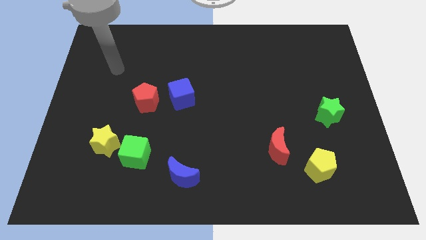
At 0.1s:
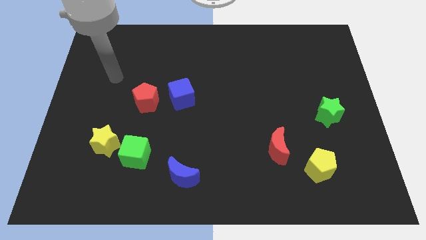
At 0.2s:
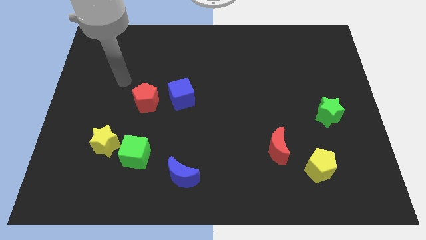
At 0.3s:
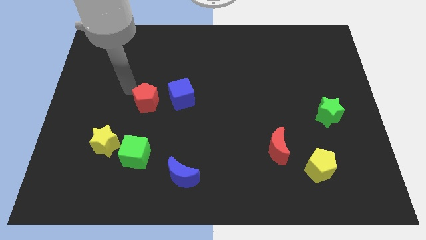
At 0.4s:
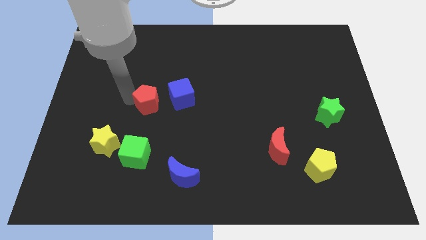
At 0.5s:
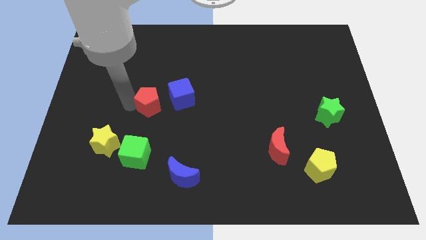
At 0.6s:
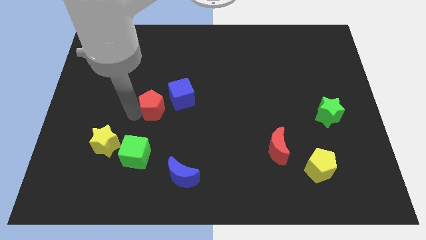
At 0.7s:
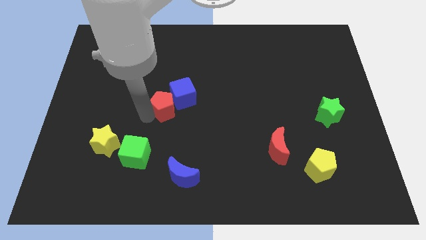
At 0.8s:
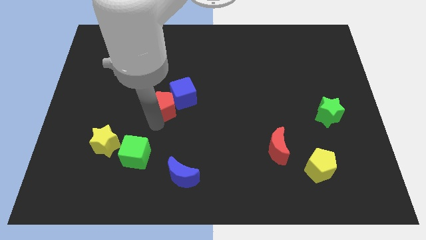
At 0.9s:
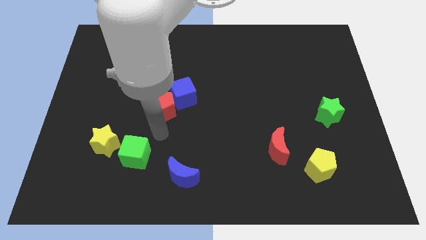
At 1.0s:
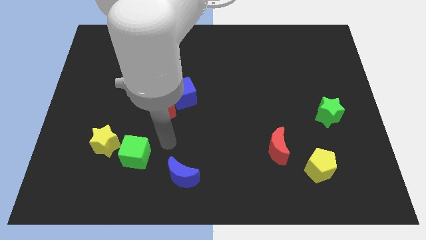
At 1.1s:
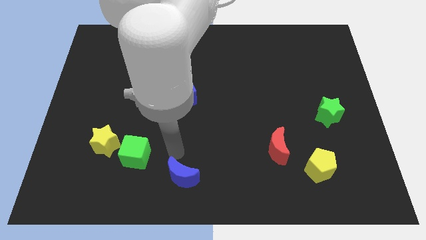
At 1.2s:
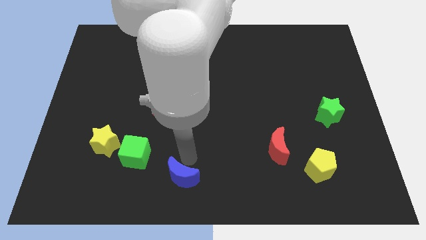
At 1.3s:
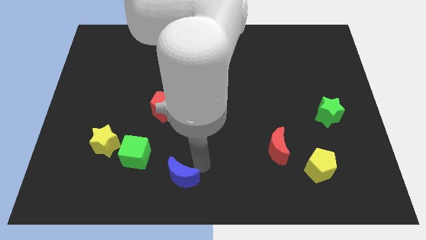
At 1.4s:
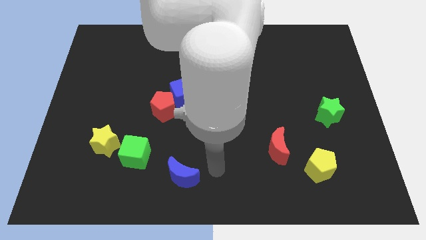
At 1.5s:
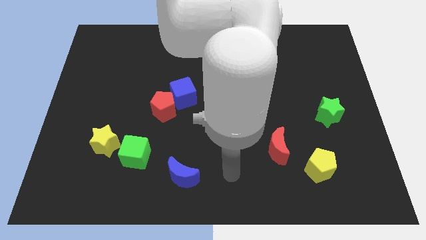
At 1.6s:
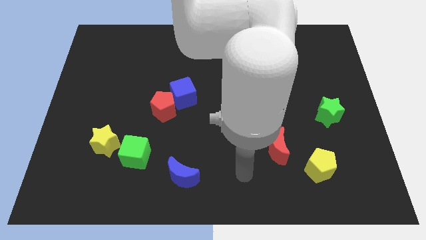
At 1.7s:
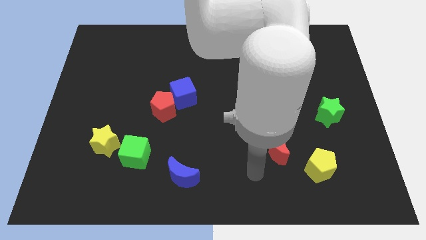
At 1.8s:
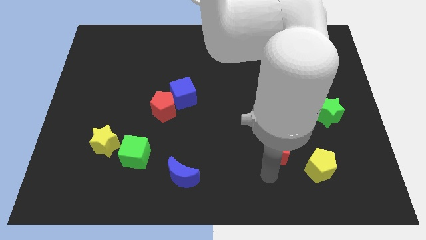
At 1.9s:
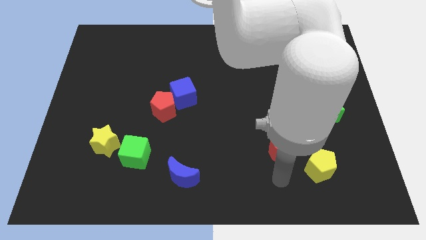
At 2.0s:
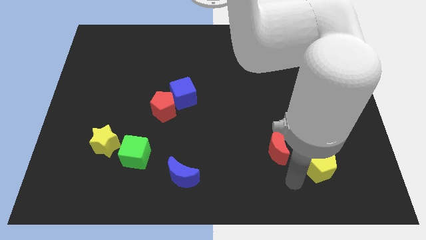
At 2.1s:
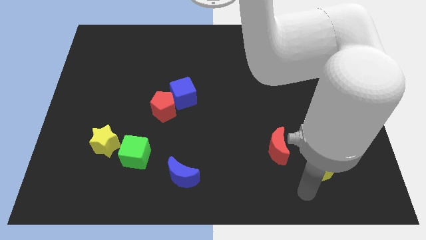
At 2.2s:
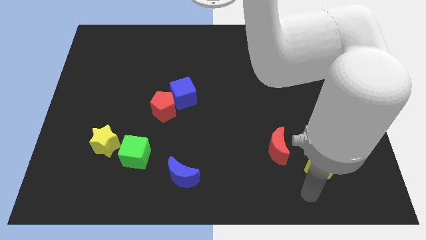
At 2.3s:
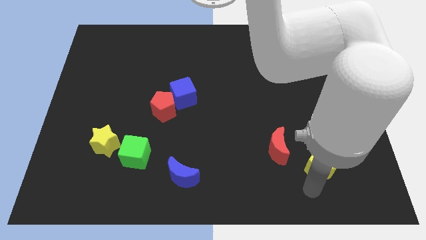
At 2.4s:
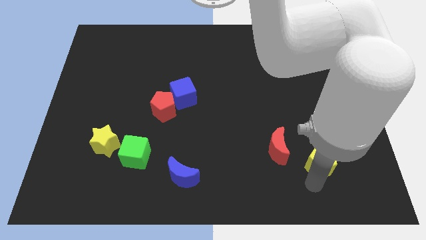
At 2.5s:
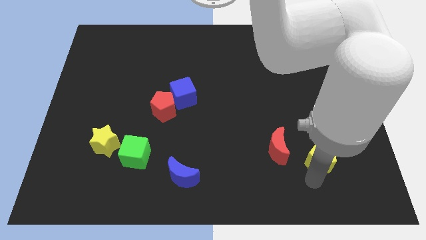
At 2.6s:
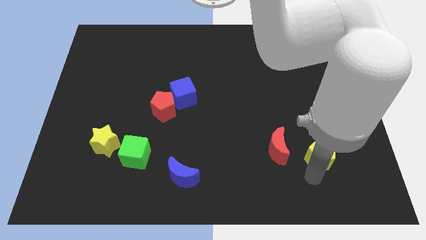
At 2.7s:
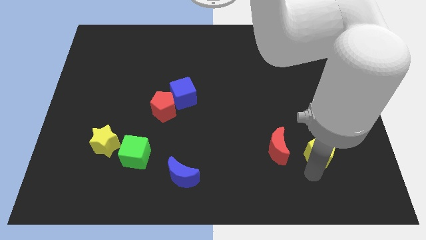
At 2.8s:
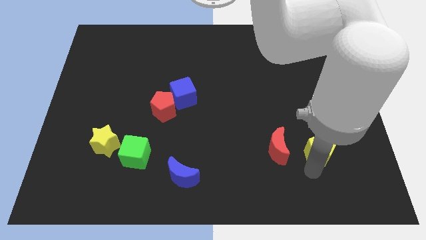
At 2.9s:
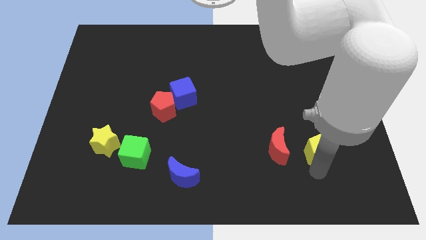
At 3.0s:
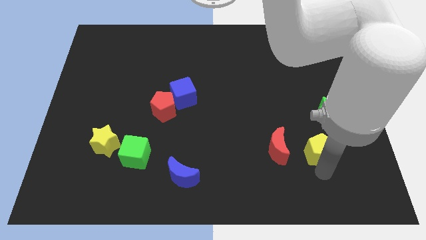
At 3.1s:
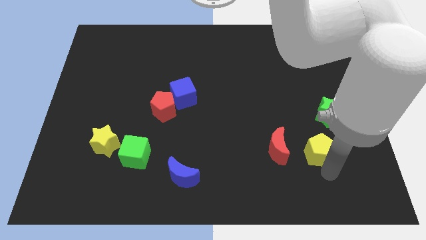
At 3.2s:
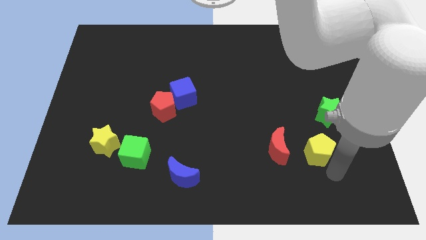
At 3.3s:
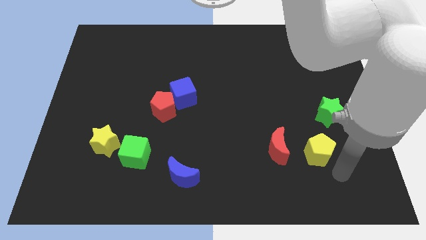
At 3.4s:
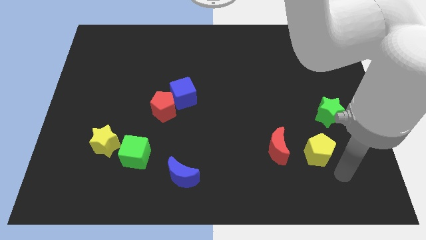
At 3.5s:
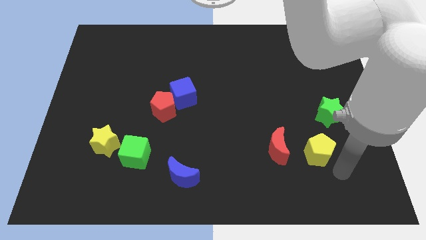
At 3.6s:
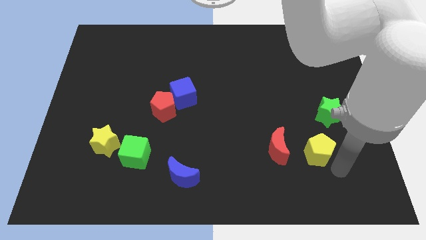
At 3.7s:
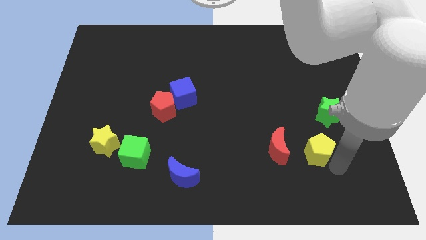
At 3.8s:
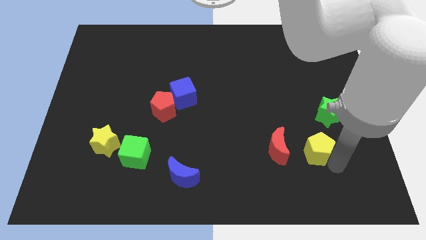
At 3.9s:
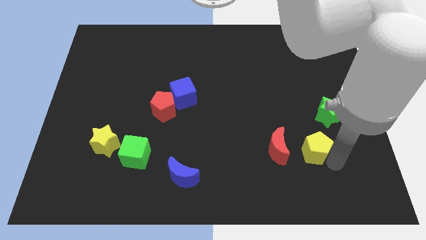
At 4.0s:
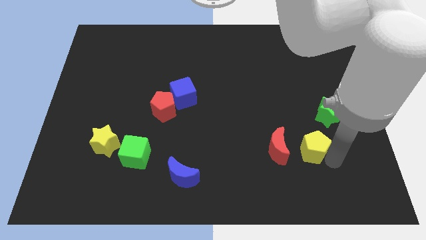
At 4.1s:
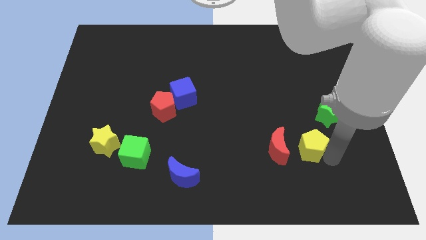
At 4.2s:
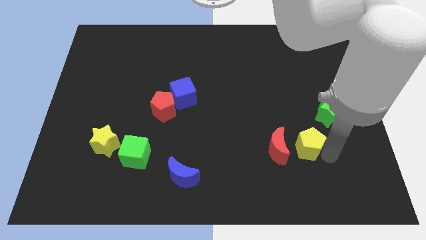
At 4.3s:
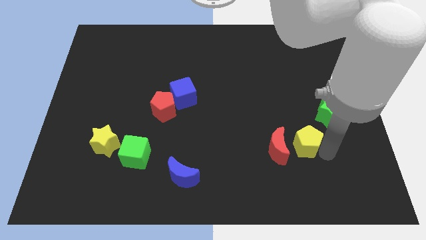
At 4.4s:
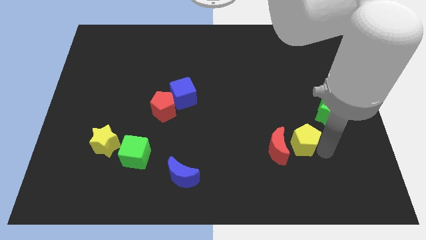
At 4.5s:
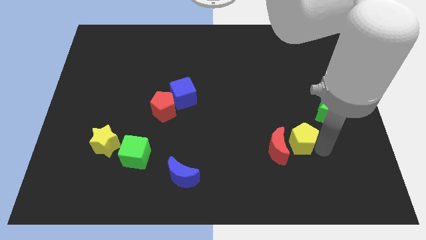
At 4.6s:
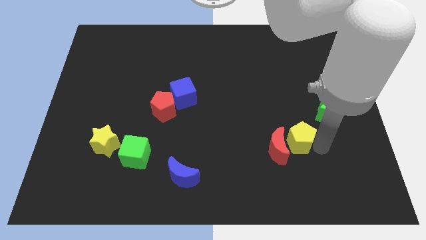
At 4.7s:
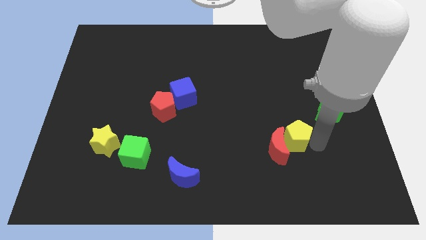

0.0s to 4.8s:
slide the yellow pentagon upwards and to the left diagonally a little

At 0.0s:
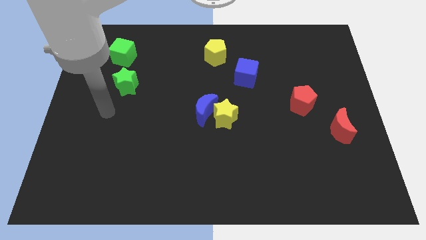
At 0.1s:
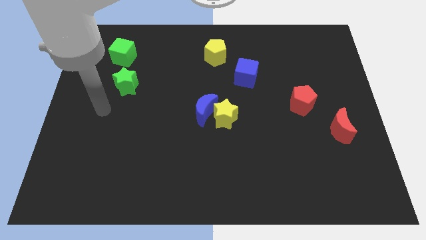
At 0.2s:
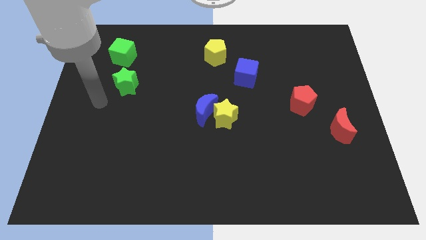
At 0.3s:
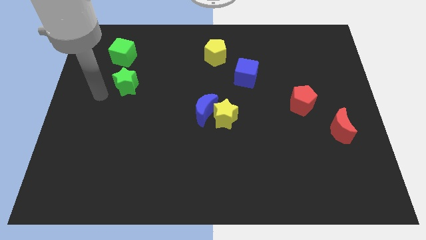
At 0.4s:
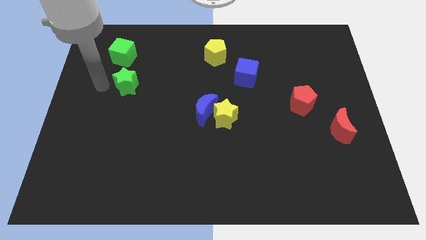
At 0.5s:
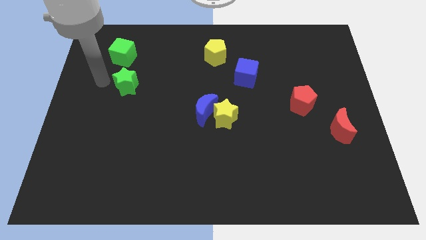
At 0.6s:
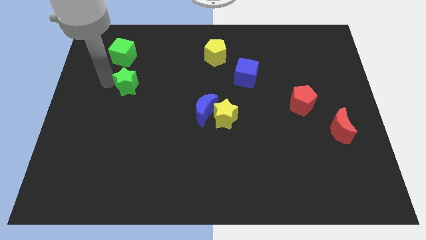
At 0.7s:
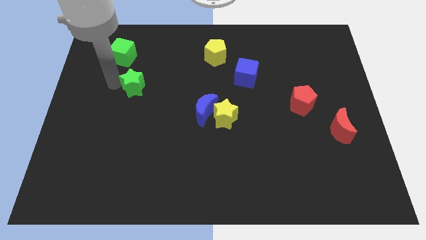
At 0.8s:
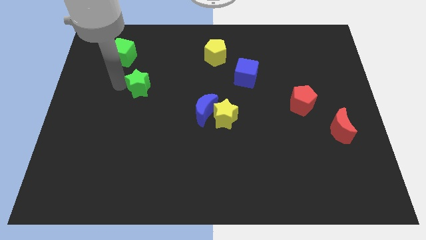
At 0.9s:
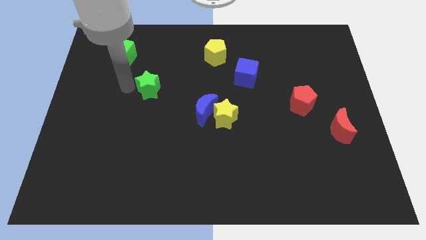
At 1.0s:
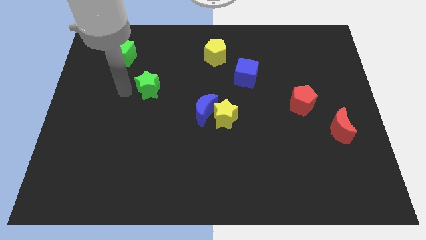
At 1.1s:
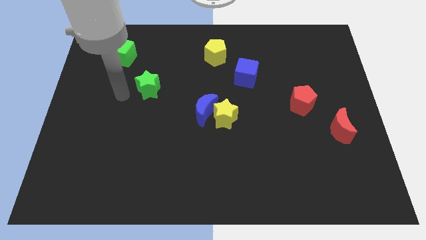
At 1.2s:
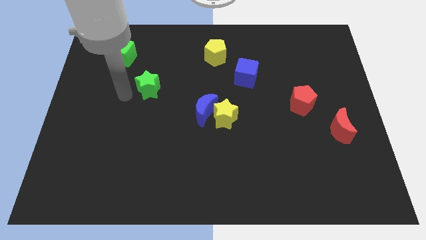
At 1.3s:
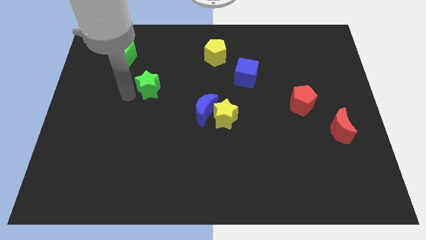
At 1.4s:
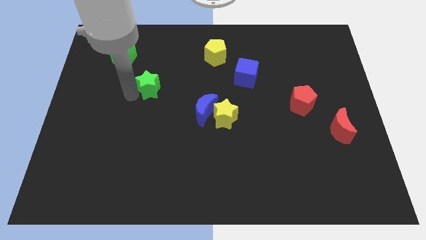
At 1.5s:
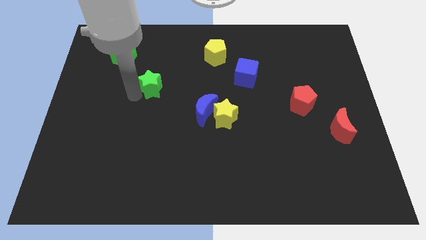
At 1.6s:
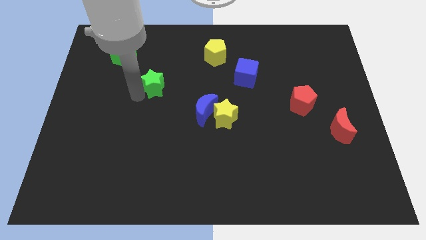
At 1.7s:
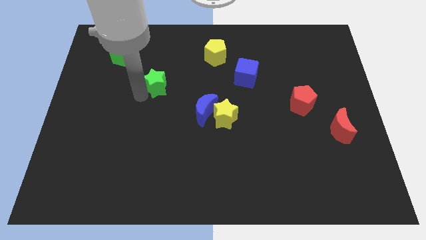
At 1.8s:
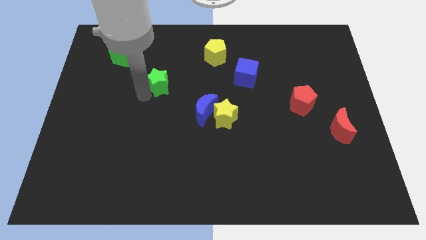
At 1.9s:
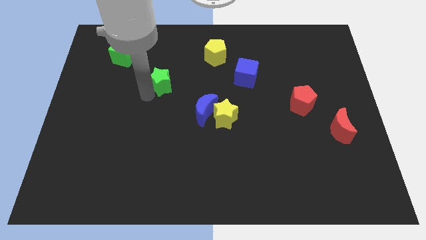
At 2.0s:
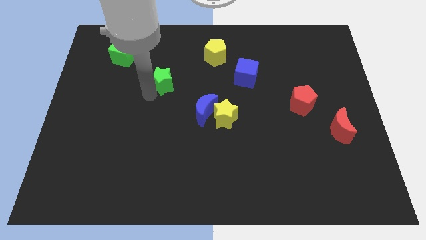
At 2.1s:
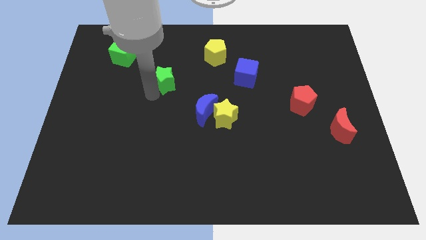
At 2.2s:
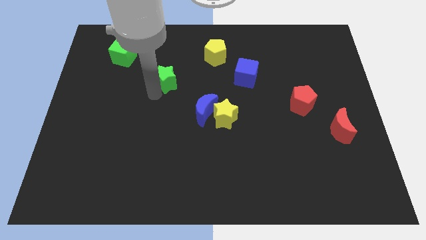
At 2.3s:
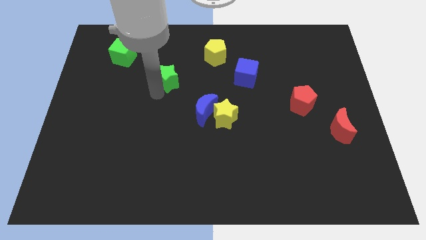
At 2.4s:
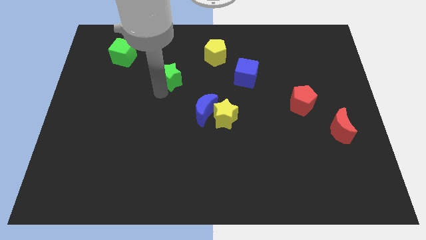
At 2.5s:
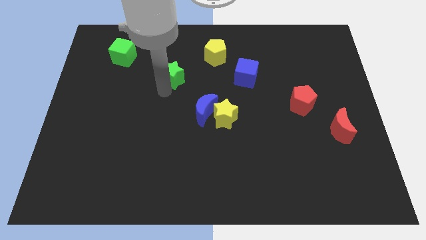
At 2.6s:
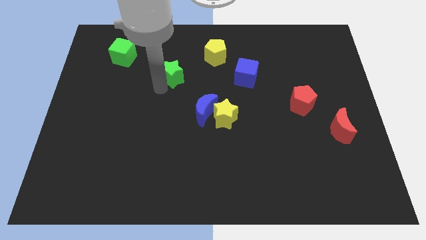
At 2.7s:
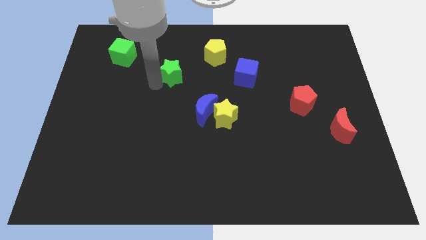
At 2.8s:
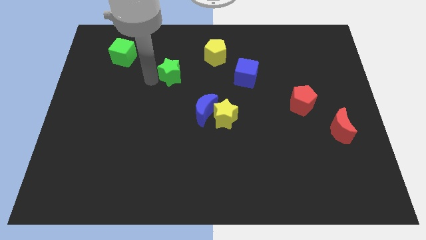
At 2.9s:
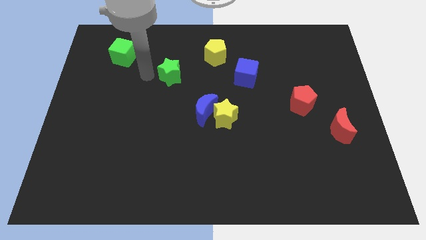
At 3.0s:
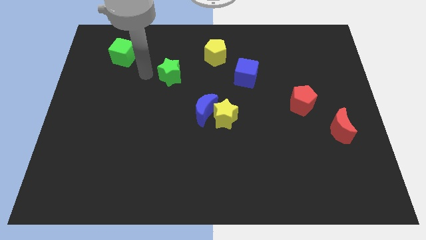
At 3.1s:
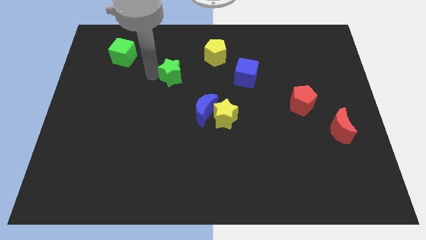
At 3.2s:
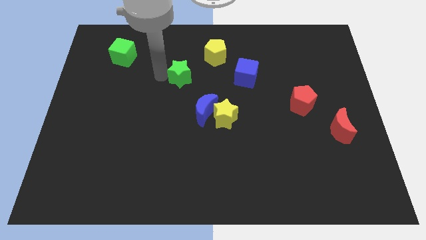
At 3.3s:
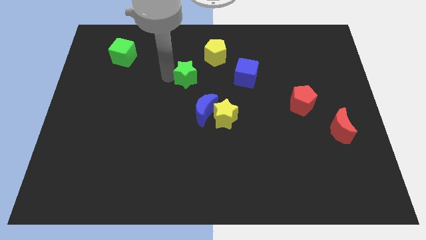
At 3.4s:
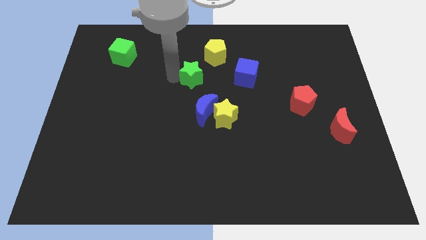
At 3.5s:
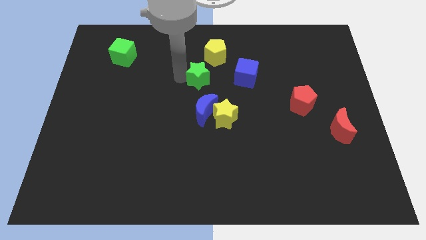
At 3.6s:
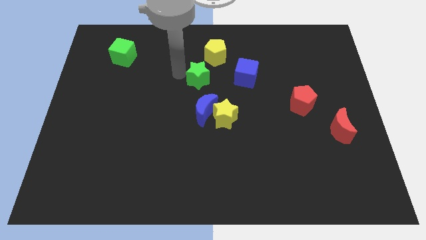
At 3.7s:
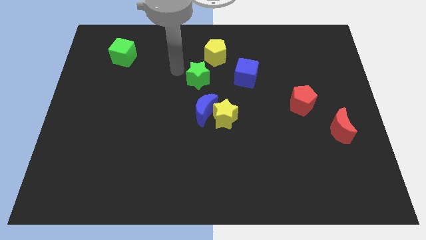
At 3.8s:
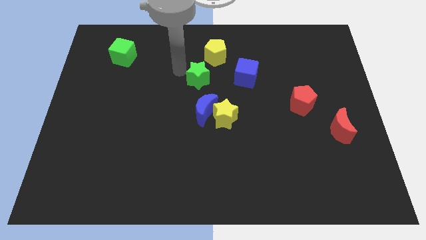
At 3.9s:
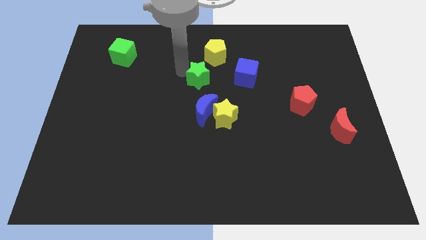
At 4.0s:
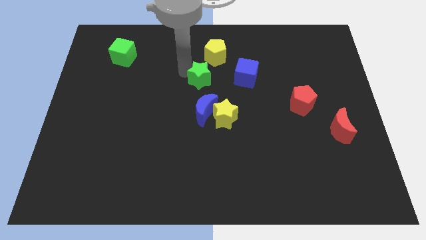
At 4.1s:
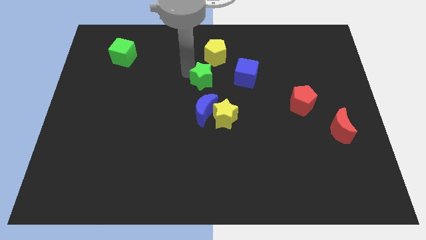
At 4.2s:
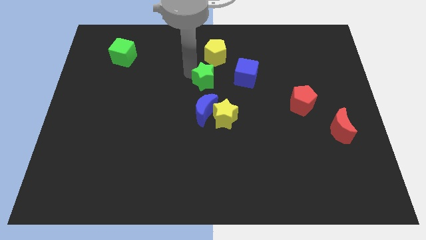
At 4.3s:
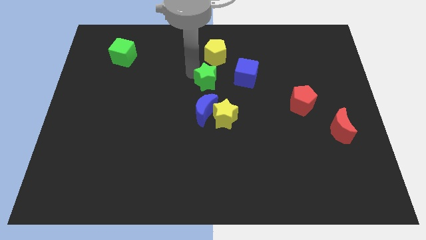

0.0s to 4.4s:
slide the green star to the right
